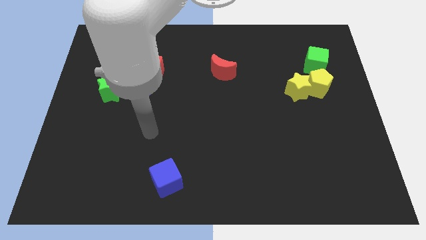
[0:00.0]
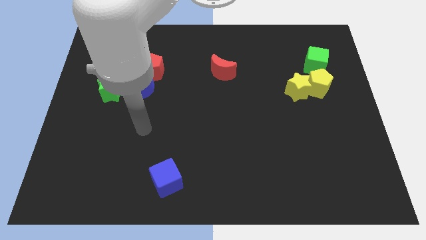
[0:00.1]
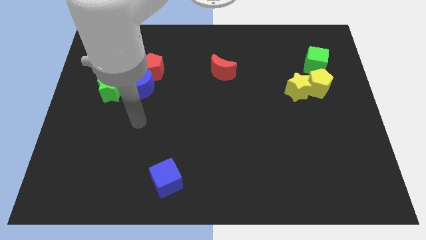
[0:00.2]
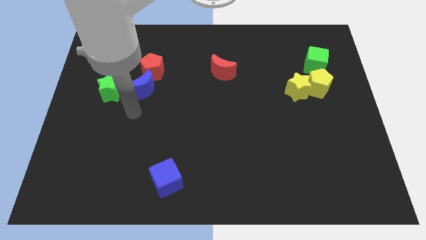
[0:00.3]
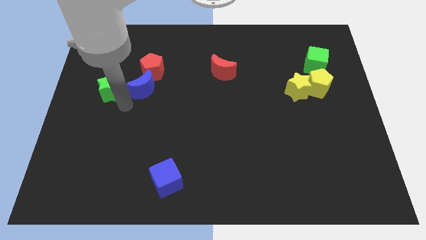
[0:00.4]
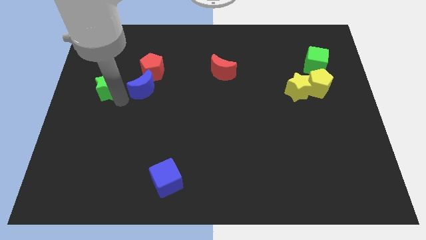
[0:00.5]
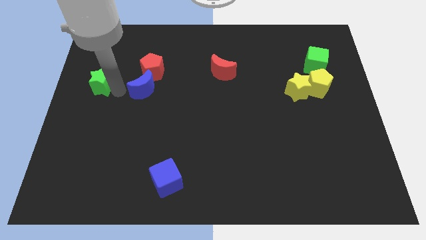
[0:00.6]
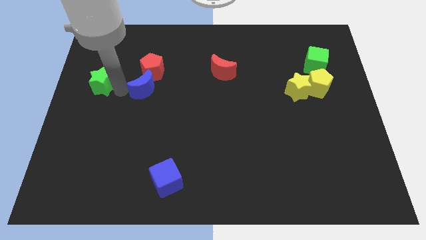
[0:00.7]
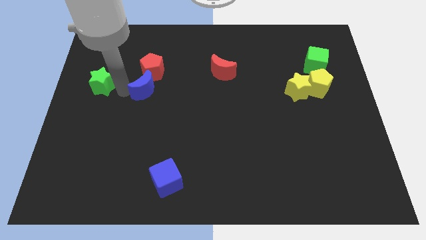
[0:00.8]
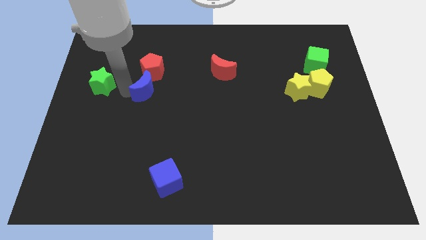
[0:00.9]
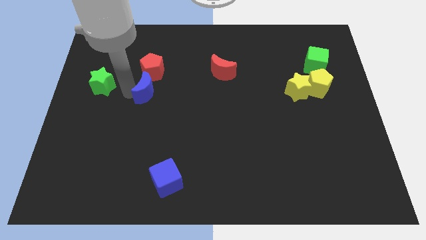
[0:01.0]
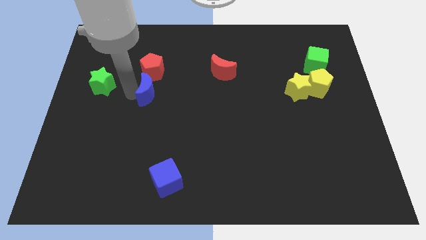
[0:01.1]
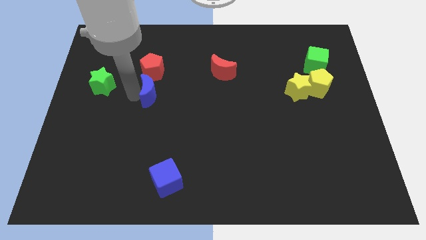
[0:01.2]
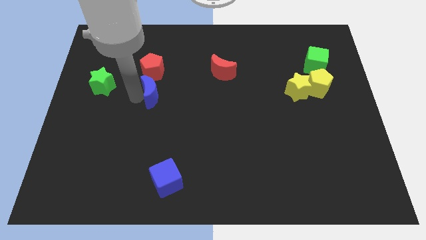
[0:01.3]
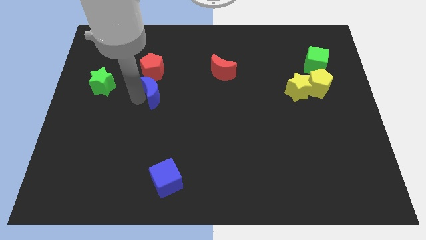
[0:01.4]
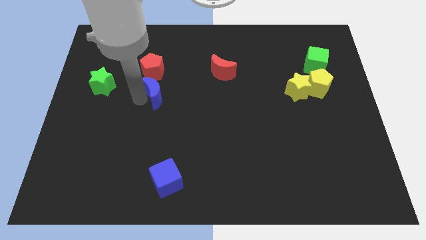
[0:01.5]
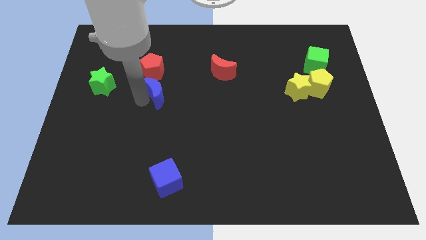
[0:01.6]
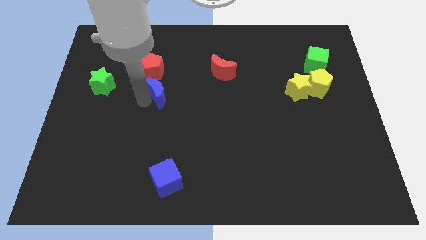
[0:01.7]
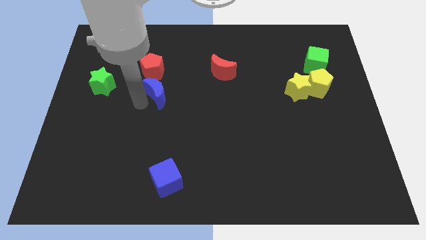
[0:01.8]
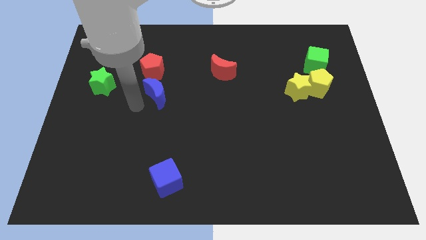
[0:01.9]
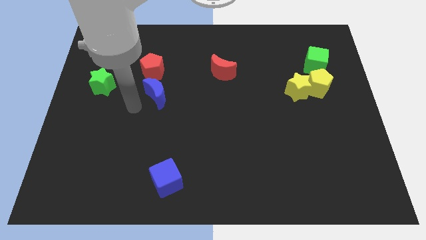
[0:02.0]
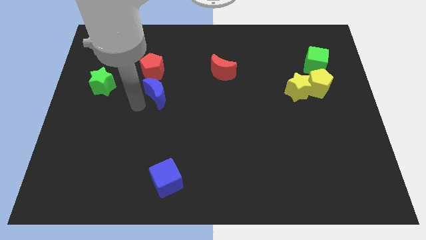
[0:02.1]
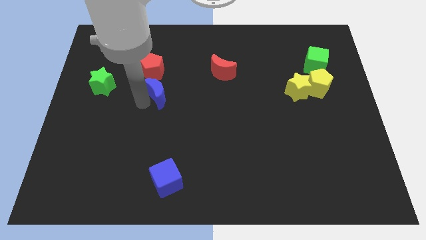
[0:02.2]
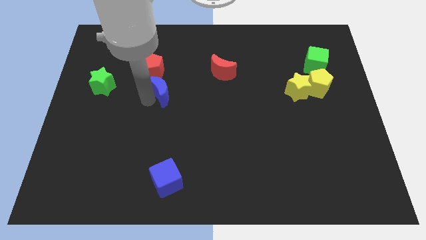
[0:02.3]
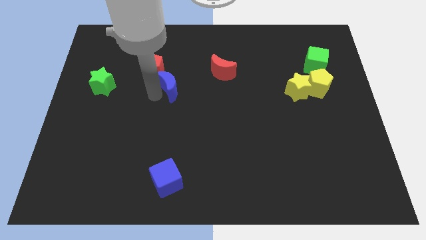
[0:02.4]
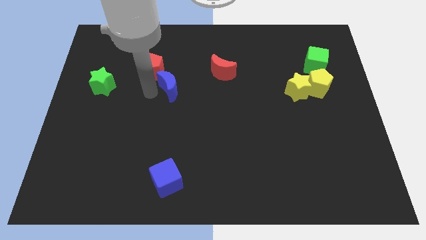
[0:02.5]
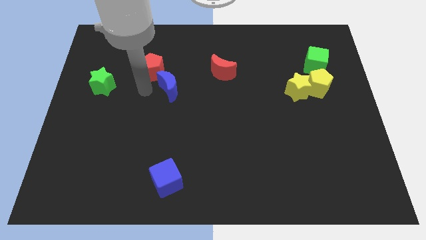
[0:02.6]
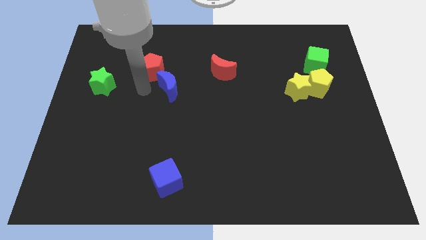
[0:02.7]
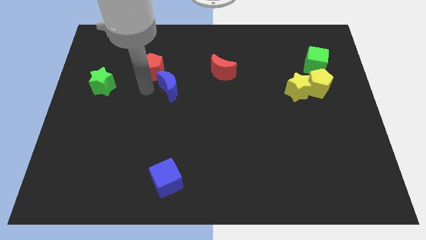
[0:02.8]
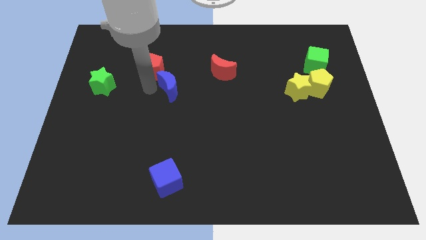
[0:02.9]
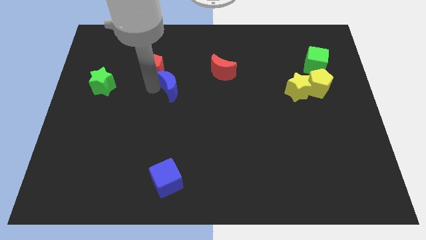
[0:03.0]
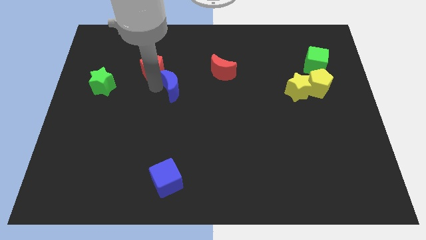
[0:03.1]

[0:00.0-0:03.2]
slightly push the blue moon to the right

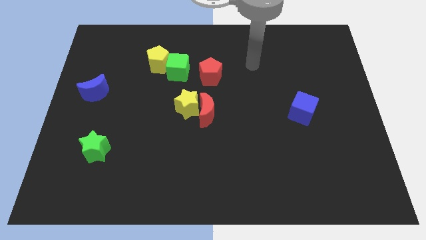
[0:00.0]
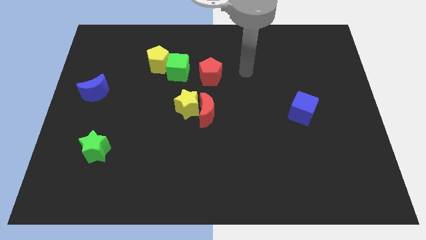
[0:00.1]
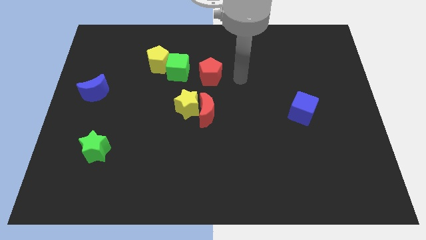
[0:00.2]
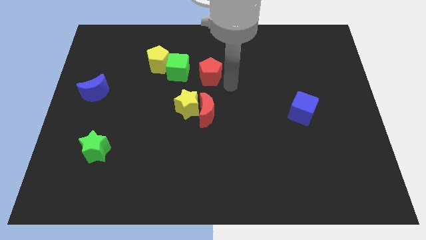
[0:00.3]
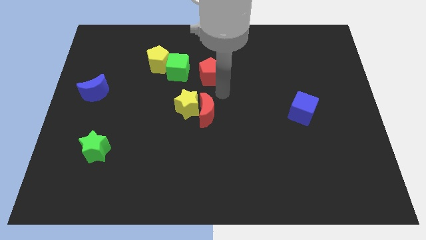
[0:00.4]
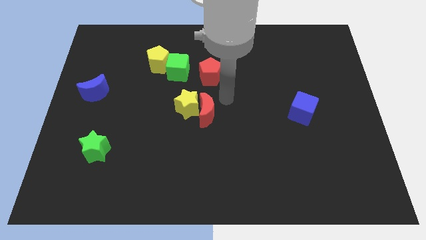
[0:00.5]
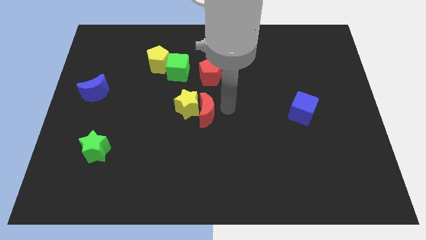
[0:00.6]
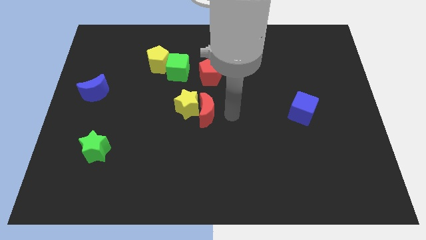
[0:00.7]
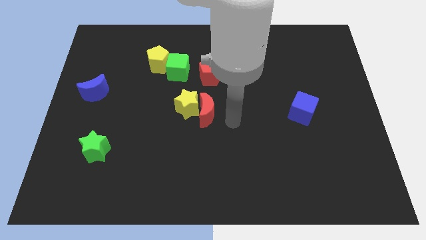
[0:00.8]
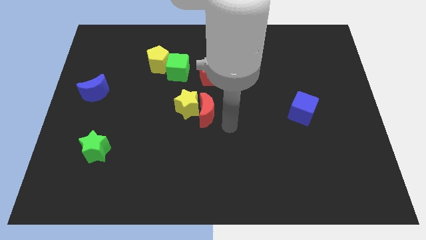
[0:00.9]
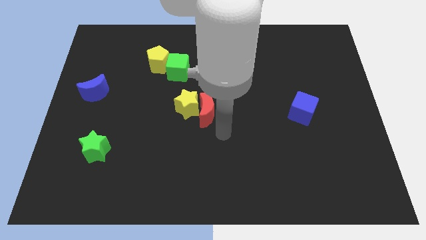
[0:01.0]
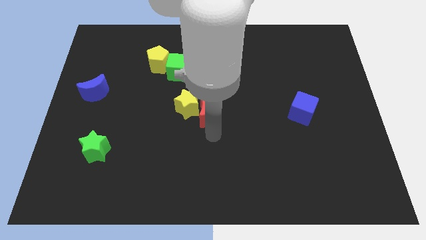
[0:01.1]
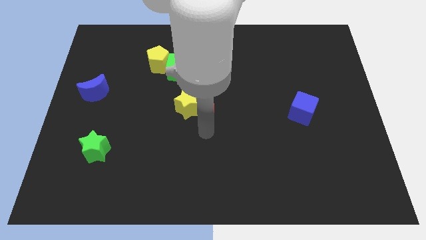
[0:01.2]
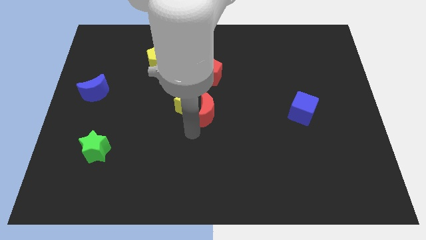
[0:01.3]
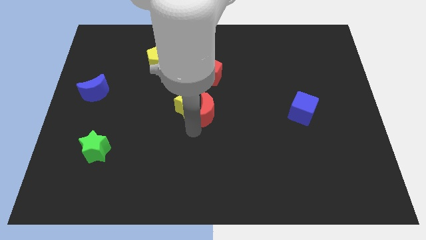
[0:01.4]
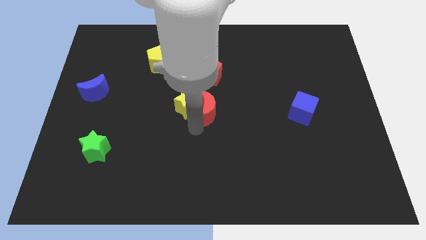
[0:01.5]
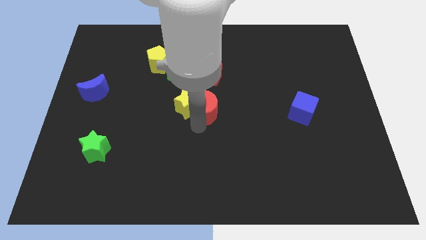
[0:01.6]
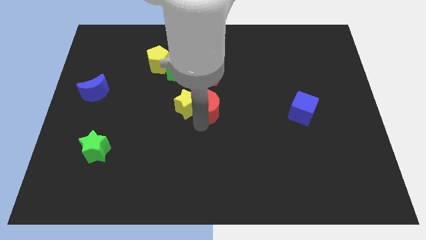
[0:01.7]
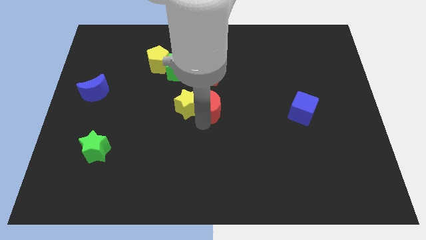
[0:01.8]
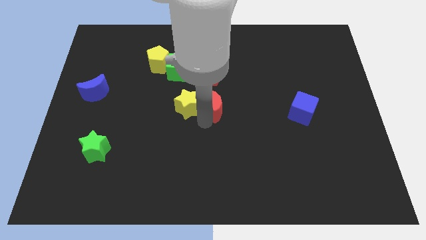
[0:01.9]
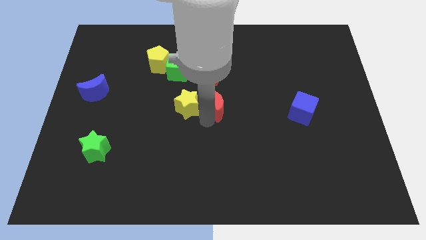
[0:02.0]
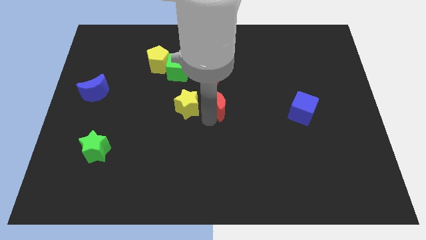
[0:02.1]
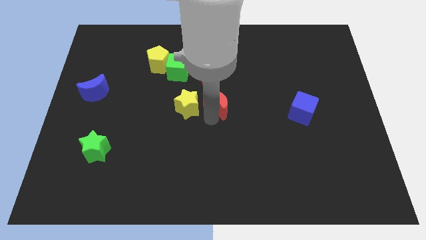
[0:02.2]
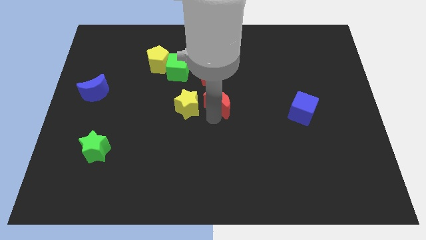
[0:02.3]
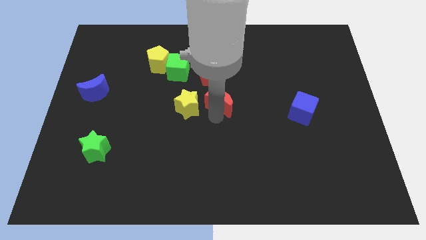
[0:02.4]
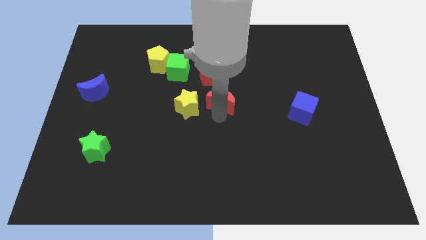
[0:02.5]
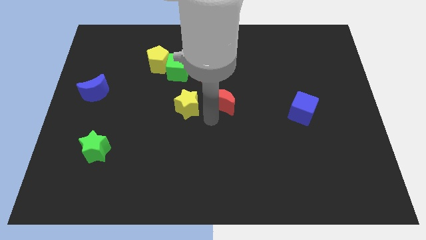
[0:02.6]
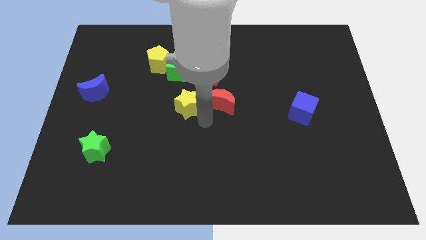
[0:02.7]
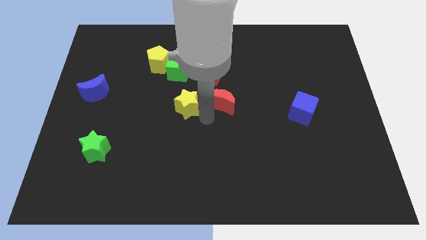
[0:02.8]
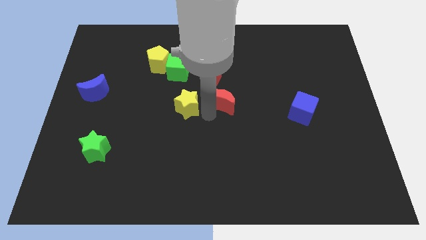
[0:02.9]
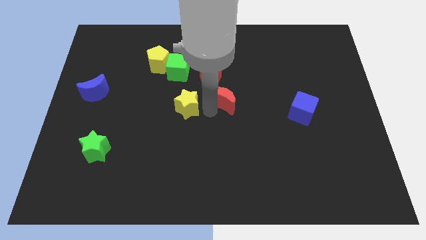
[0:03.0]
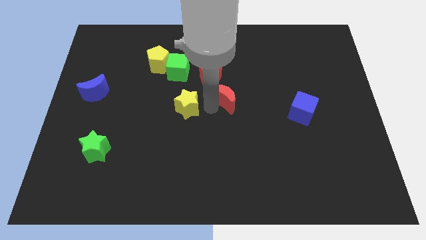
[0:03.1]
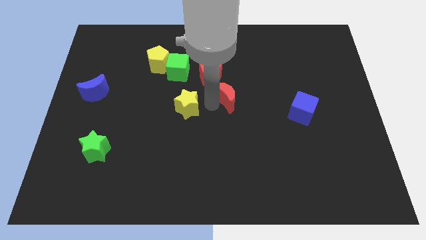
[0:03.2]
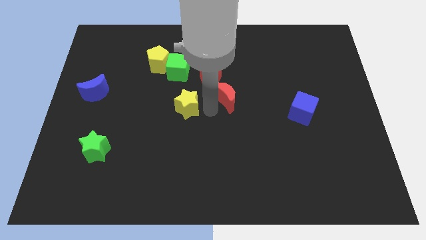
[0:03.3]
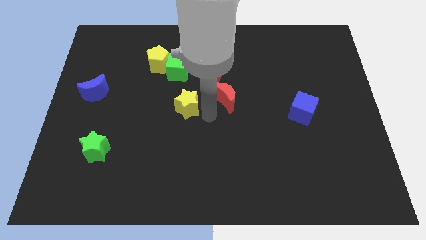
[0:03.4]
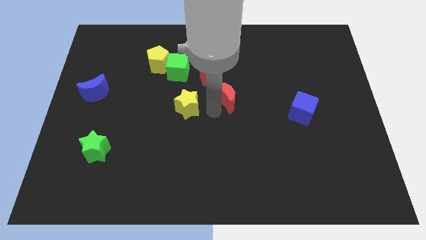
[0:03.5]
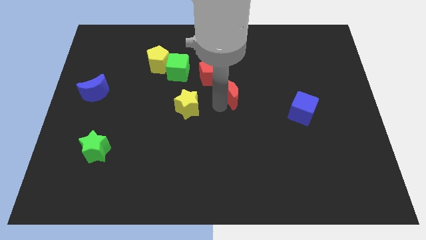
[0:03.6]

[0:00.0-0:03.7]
slightly slide the red moon upwards and right diagonally

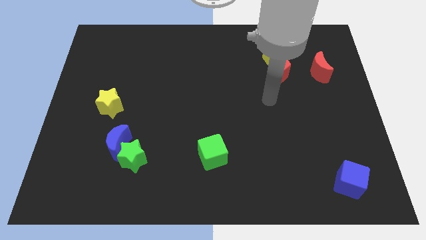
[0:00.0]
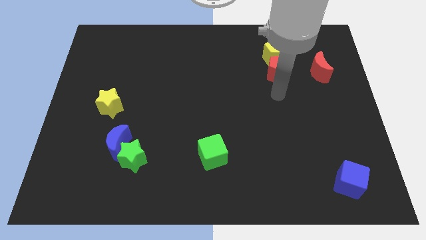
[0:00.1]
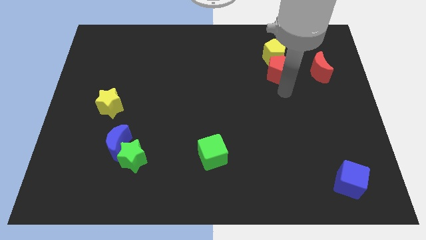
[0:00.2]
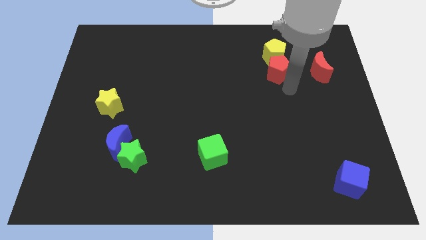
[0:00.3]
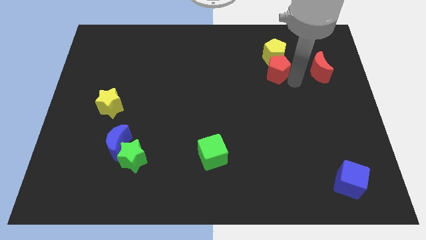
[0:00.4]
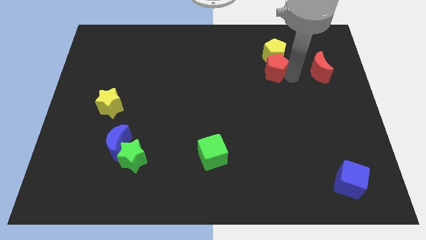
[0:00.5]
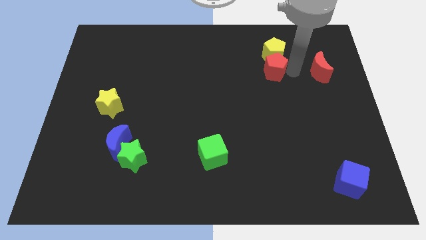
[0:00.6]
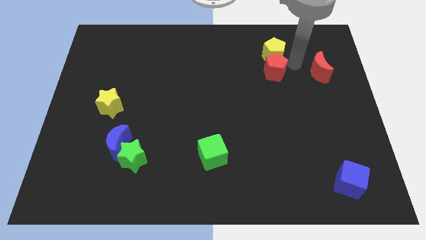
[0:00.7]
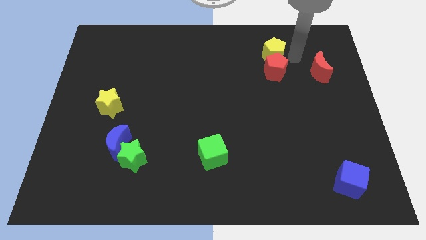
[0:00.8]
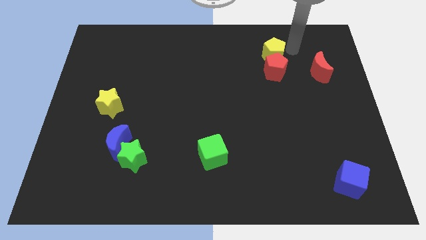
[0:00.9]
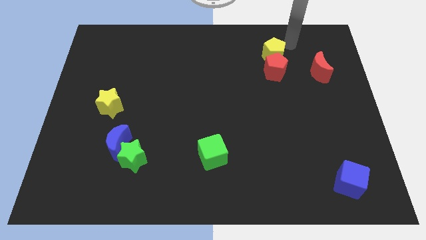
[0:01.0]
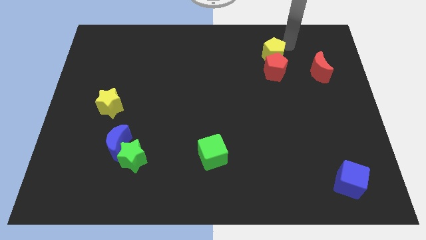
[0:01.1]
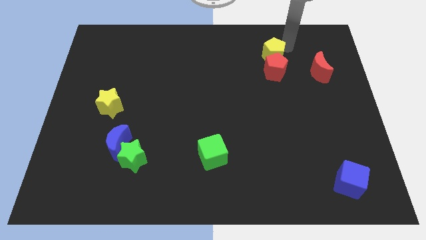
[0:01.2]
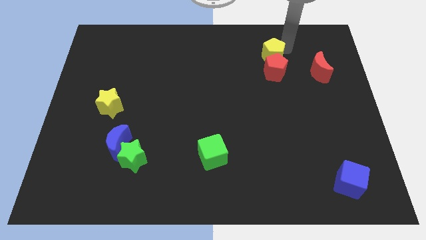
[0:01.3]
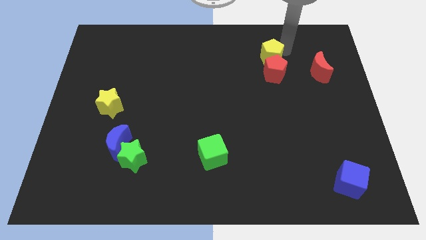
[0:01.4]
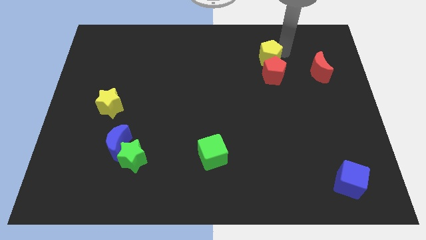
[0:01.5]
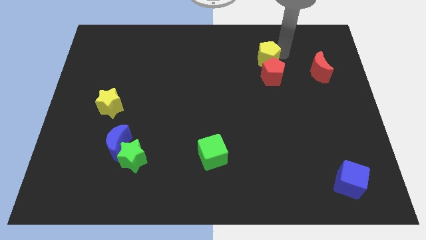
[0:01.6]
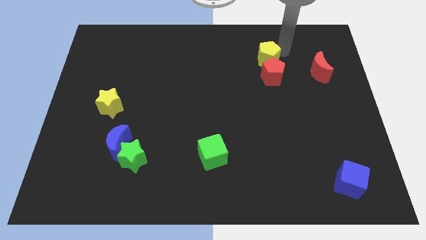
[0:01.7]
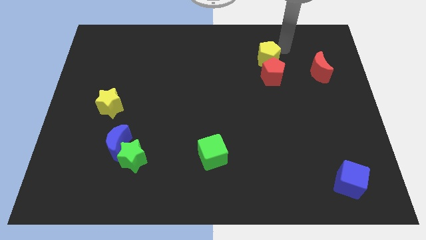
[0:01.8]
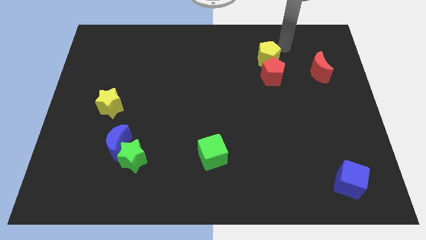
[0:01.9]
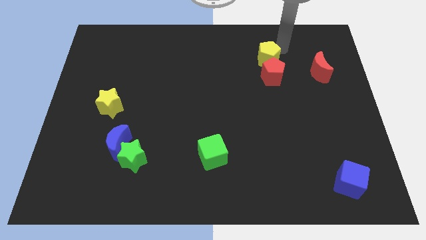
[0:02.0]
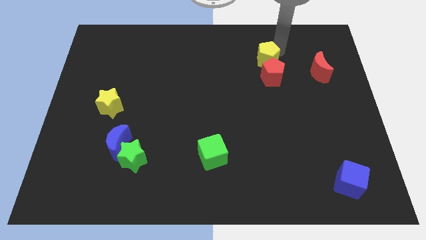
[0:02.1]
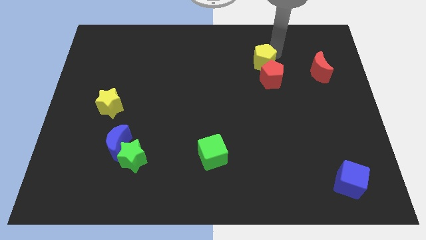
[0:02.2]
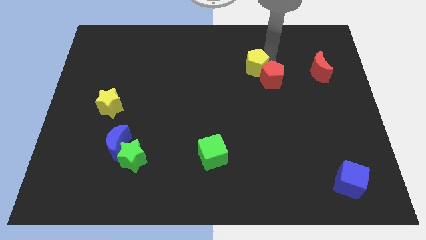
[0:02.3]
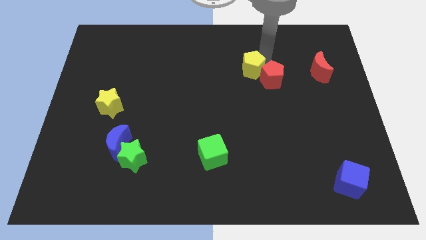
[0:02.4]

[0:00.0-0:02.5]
slide the yellow pentagon slightly diagonally down and left
